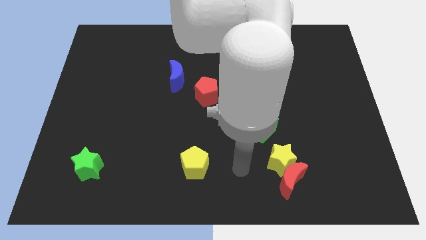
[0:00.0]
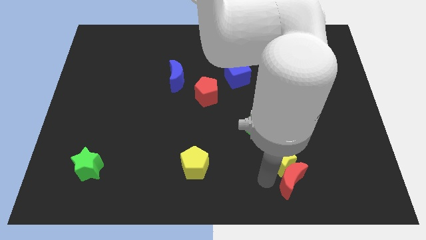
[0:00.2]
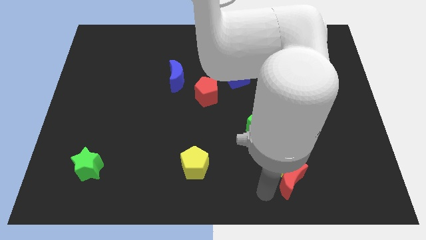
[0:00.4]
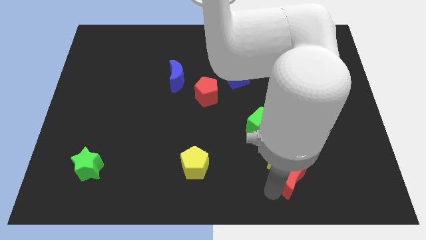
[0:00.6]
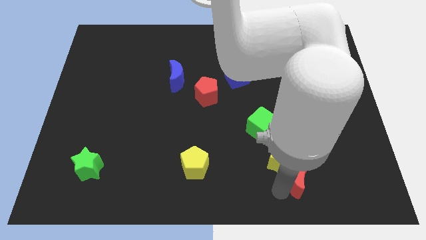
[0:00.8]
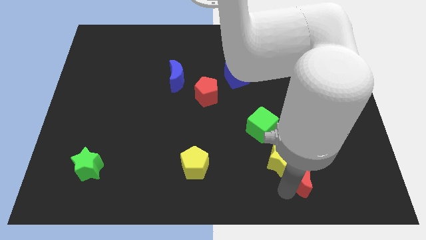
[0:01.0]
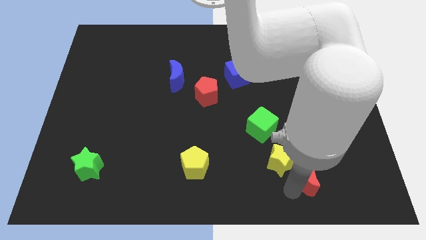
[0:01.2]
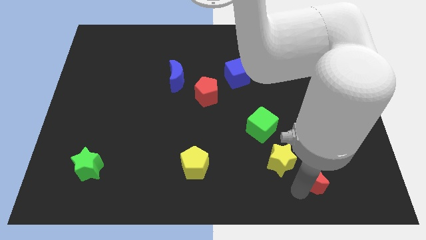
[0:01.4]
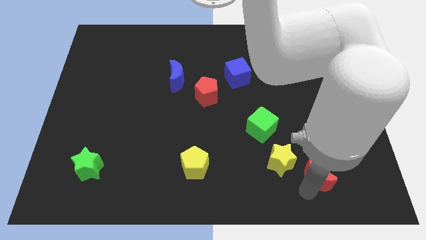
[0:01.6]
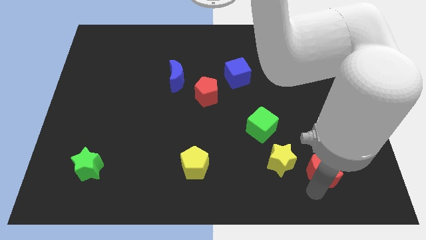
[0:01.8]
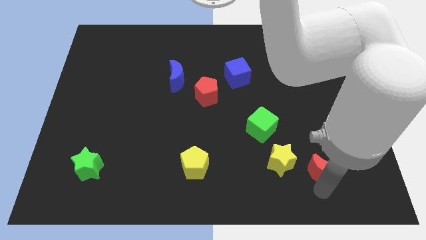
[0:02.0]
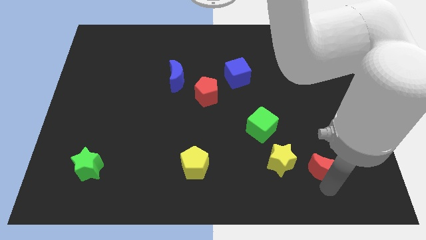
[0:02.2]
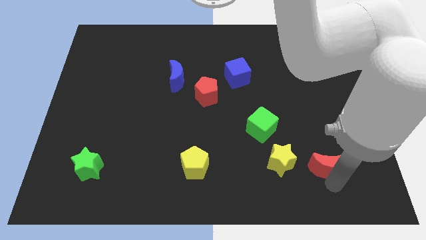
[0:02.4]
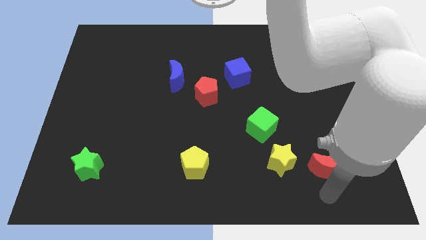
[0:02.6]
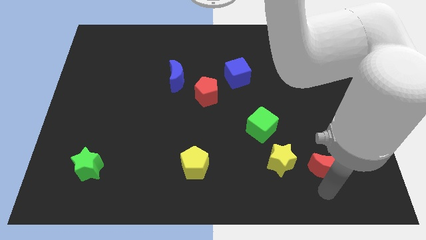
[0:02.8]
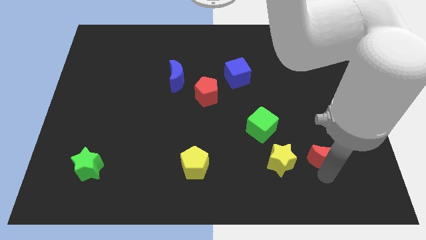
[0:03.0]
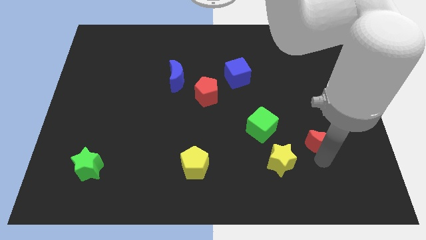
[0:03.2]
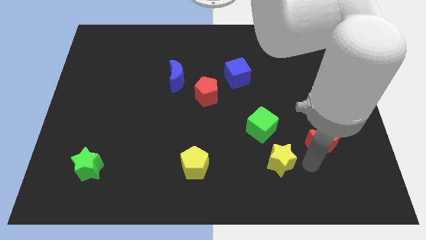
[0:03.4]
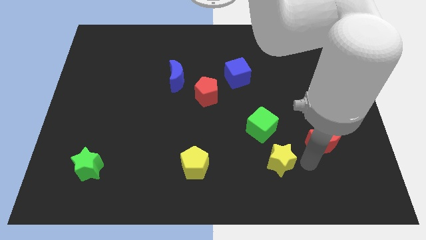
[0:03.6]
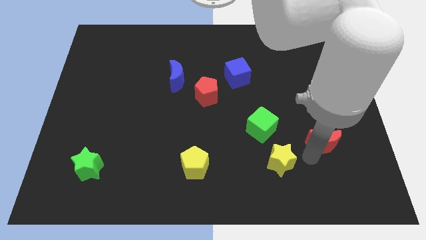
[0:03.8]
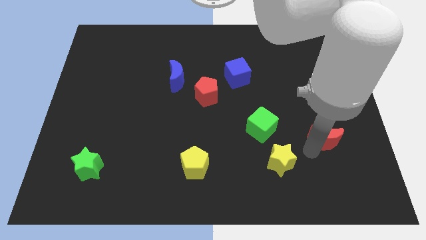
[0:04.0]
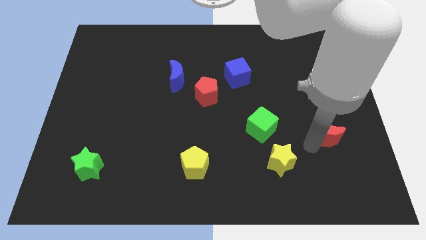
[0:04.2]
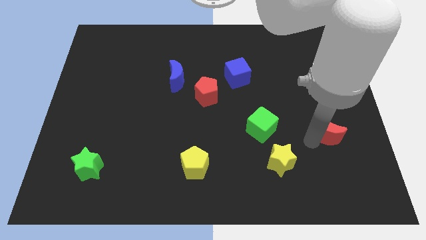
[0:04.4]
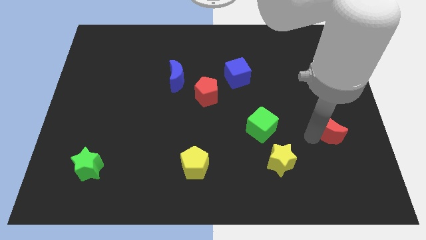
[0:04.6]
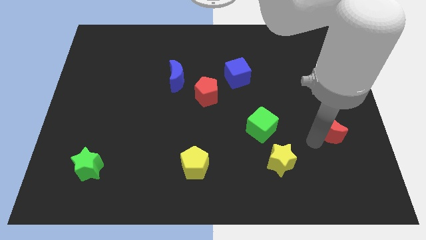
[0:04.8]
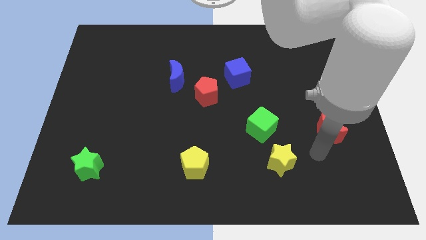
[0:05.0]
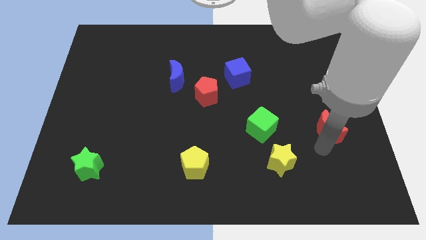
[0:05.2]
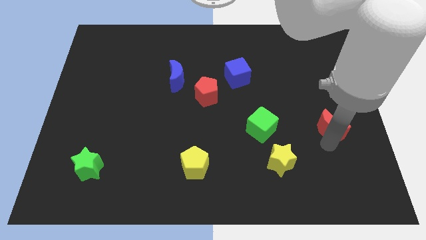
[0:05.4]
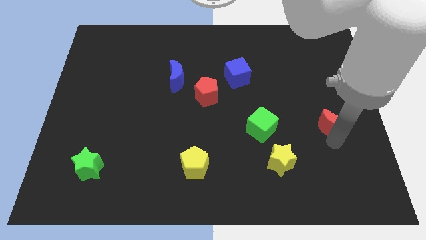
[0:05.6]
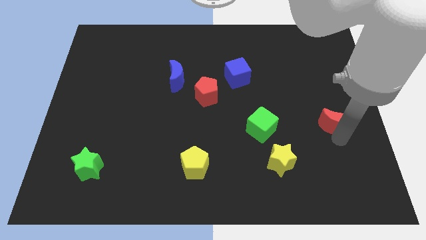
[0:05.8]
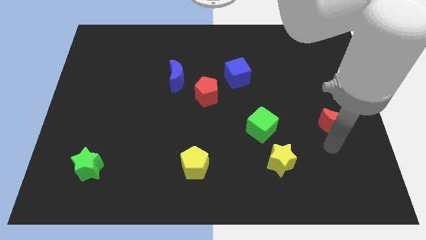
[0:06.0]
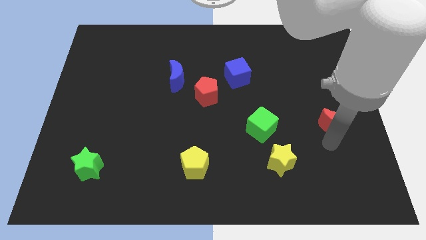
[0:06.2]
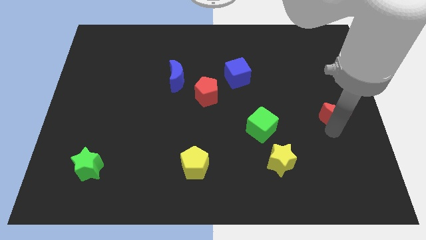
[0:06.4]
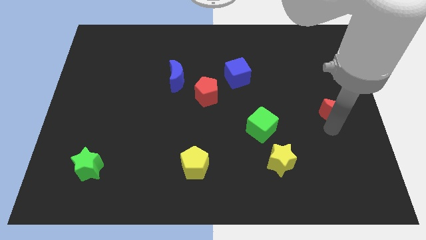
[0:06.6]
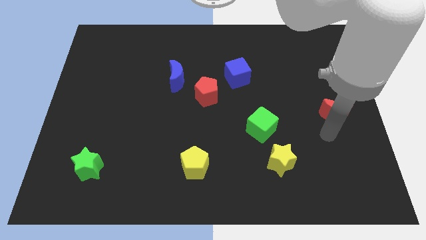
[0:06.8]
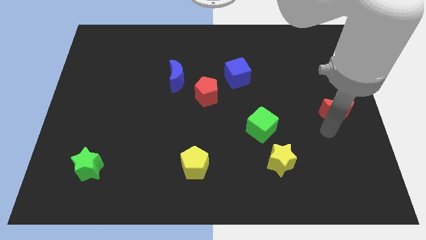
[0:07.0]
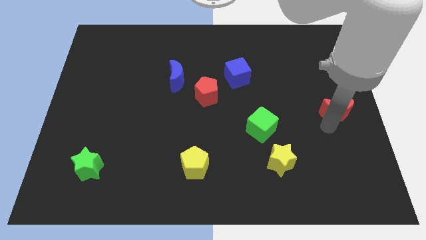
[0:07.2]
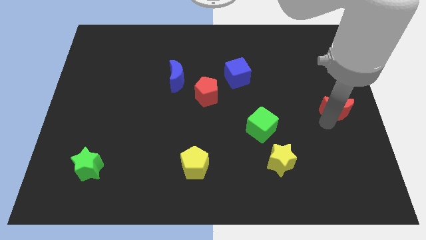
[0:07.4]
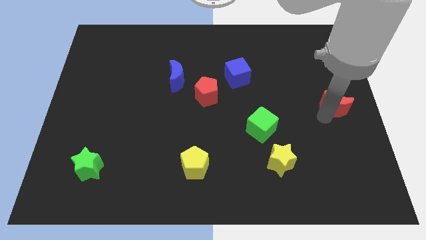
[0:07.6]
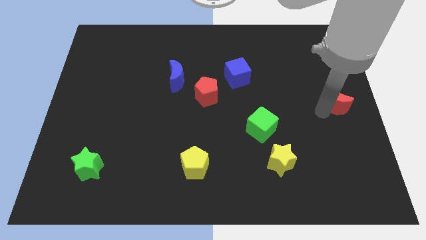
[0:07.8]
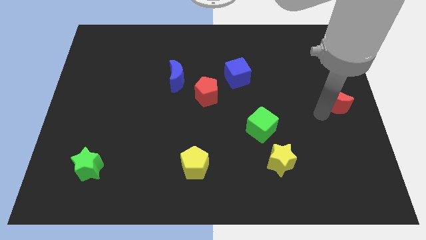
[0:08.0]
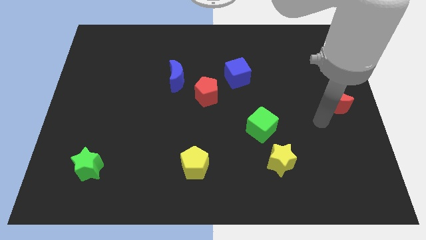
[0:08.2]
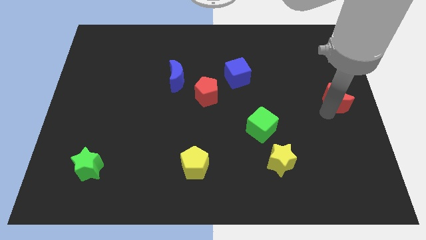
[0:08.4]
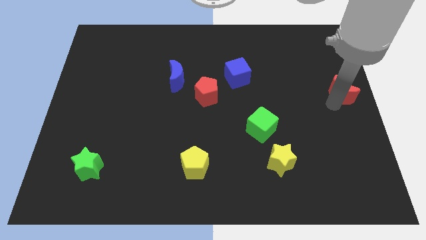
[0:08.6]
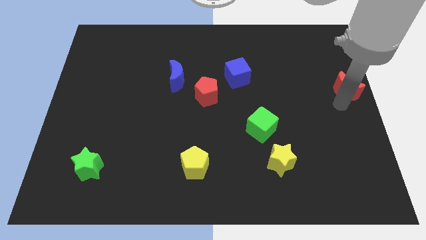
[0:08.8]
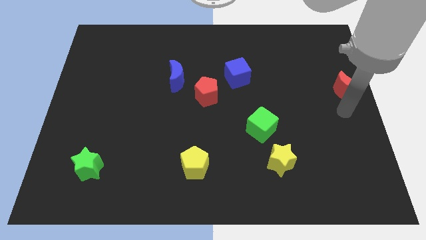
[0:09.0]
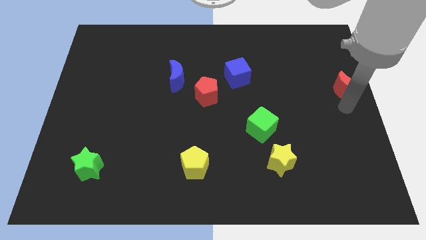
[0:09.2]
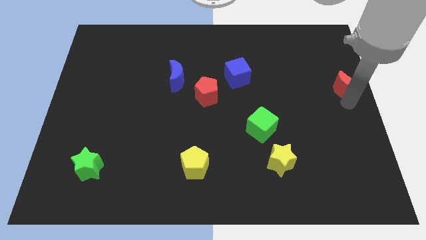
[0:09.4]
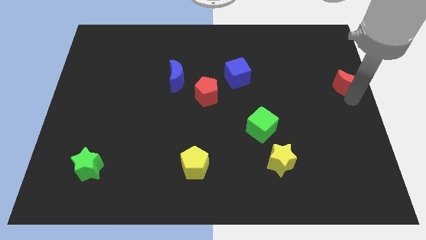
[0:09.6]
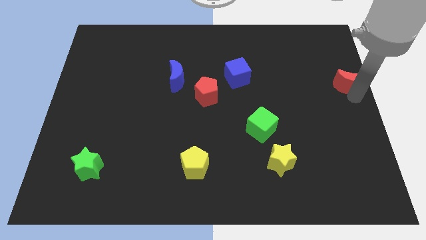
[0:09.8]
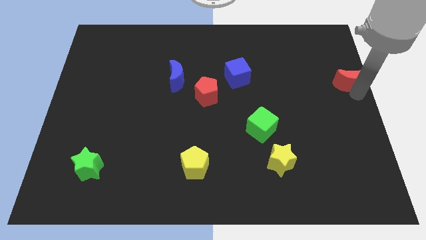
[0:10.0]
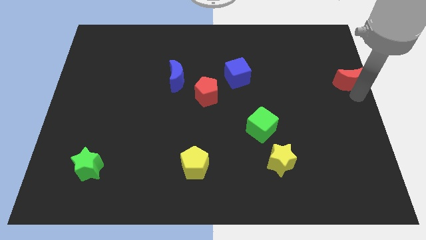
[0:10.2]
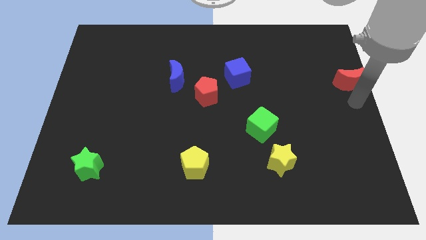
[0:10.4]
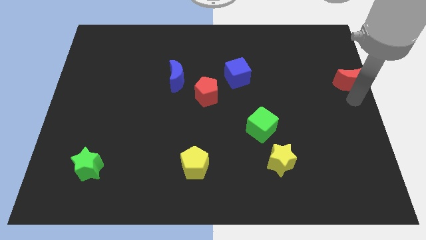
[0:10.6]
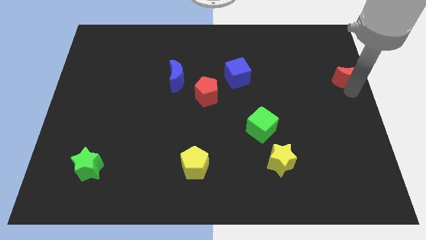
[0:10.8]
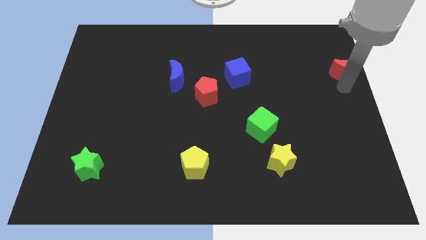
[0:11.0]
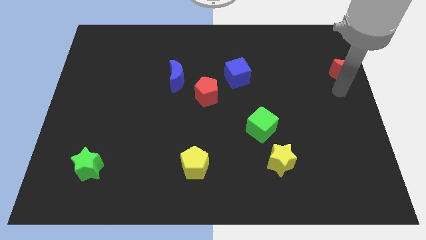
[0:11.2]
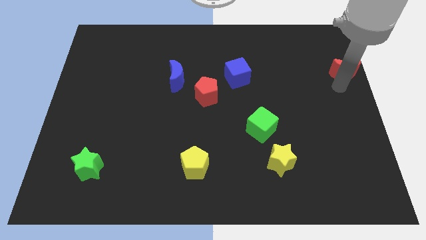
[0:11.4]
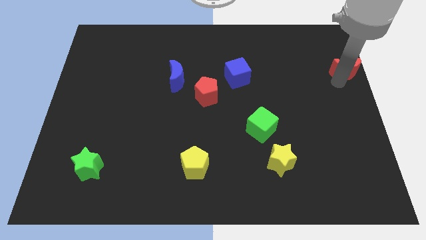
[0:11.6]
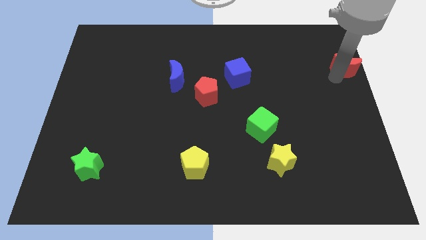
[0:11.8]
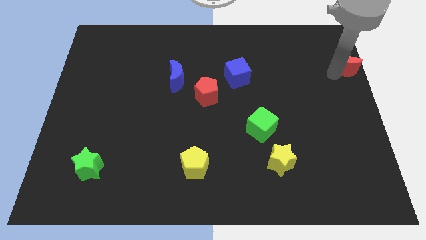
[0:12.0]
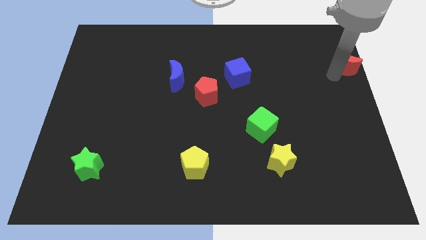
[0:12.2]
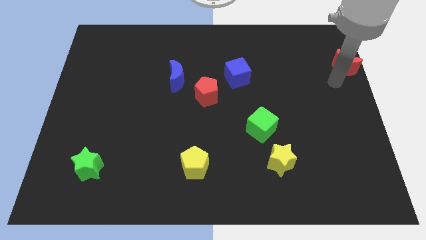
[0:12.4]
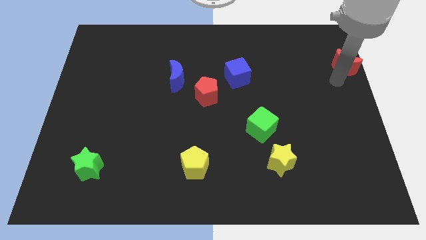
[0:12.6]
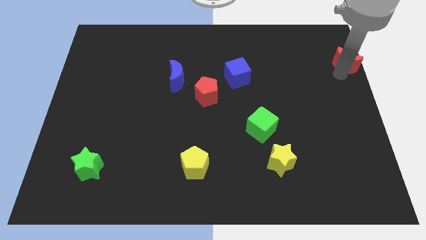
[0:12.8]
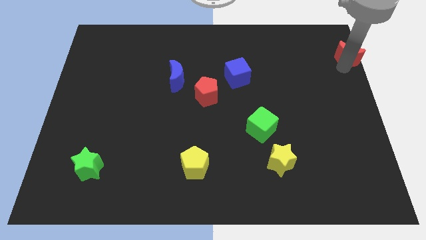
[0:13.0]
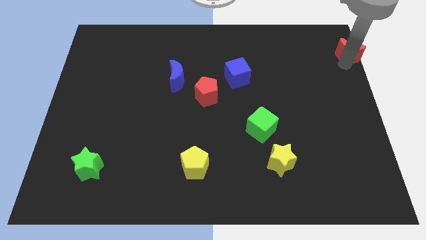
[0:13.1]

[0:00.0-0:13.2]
move the red moon to the top right
